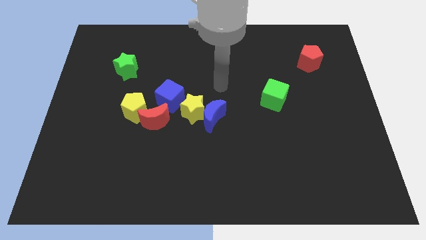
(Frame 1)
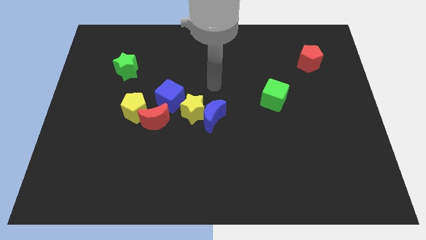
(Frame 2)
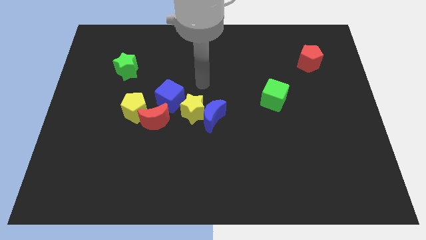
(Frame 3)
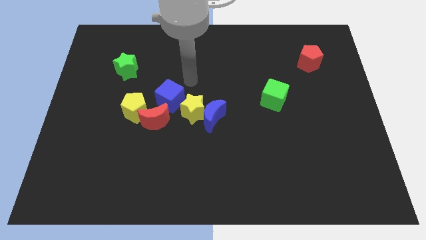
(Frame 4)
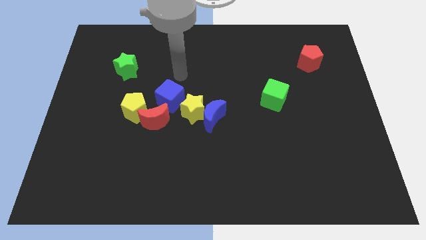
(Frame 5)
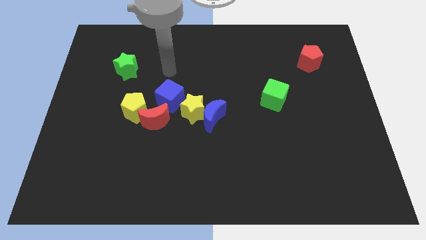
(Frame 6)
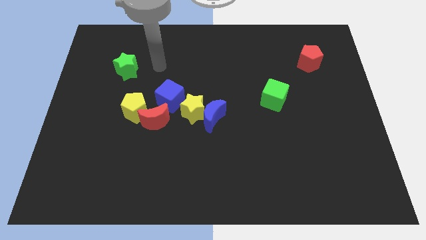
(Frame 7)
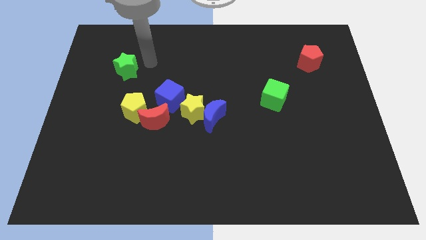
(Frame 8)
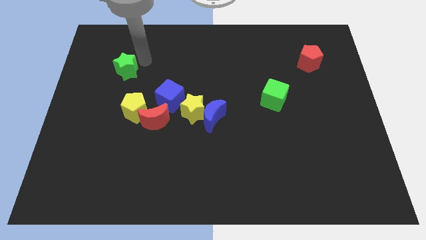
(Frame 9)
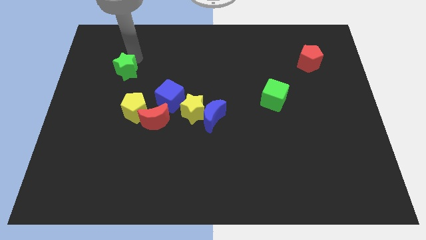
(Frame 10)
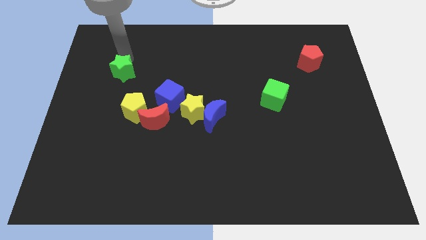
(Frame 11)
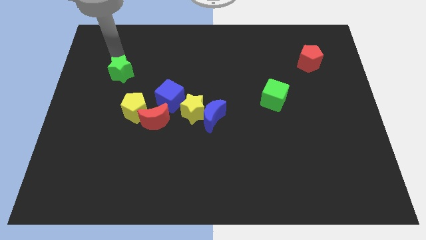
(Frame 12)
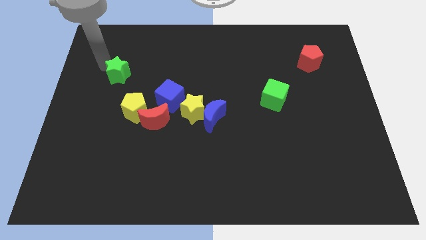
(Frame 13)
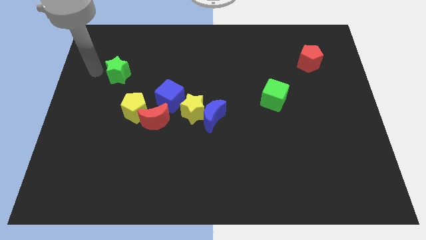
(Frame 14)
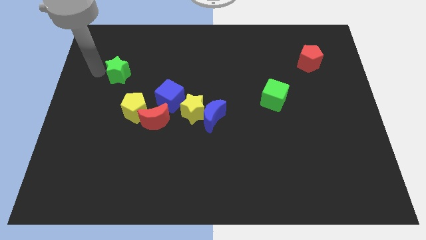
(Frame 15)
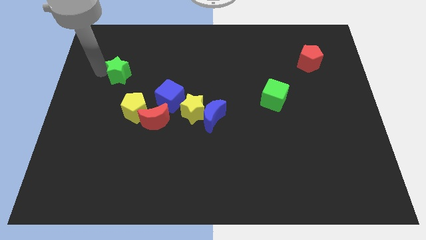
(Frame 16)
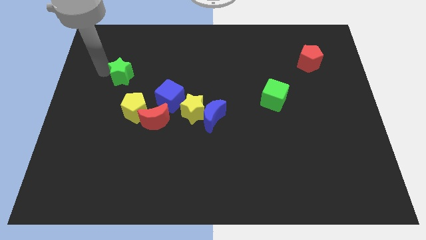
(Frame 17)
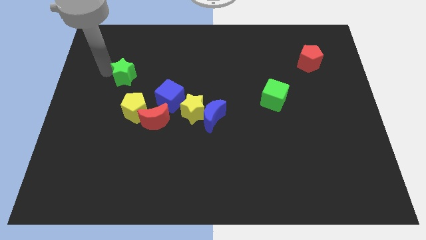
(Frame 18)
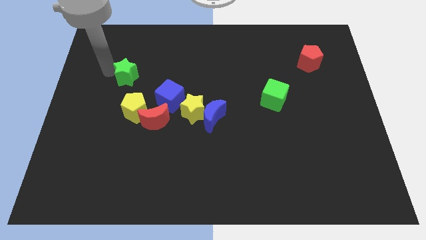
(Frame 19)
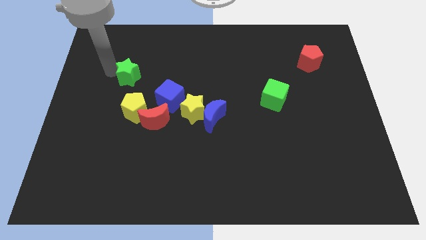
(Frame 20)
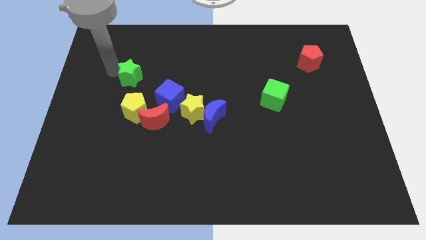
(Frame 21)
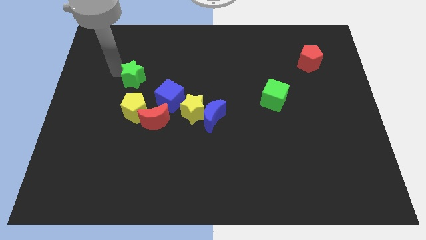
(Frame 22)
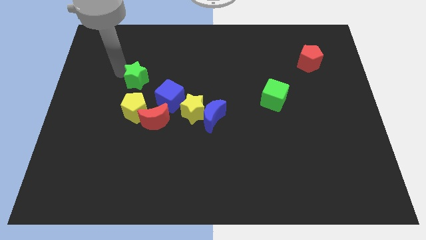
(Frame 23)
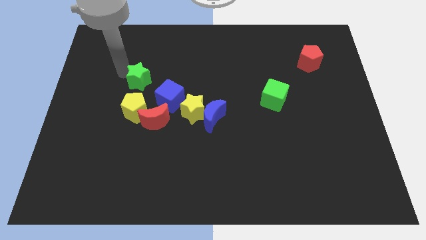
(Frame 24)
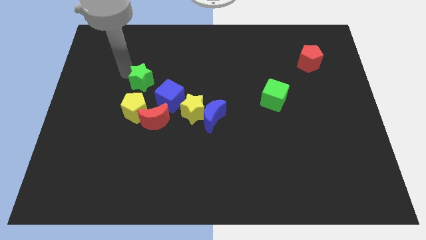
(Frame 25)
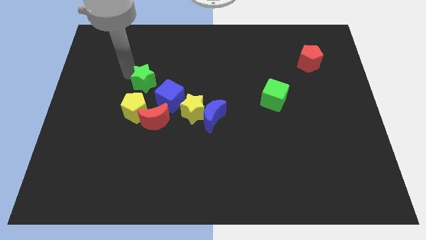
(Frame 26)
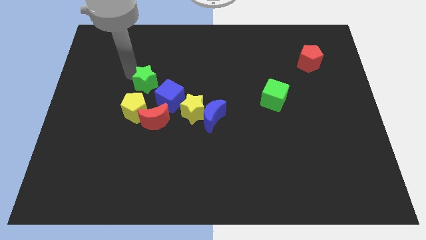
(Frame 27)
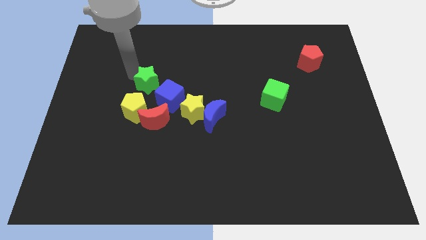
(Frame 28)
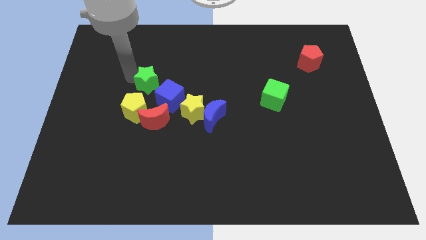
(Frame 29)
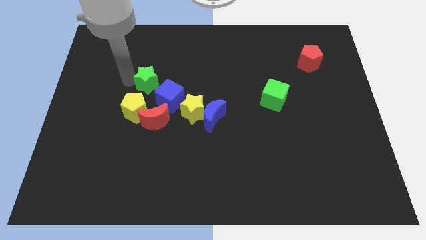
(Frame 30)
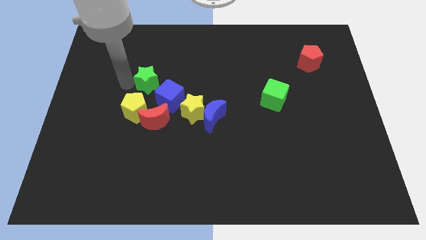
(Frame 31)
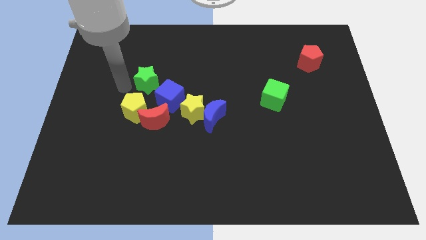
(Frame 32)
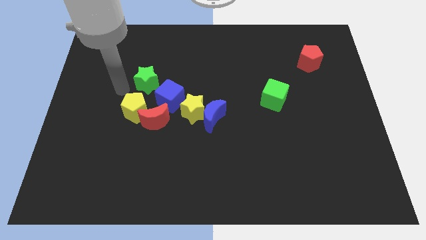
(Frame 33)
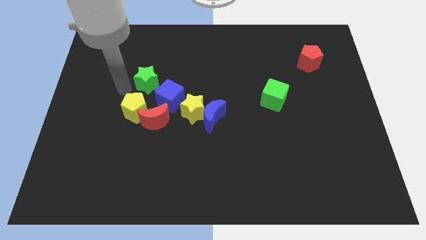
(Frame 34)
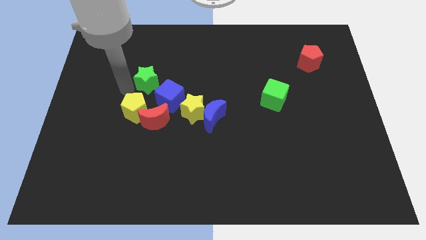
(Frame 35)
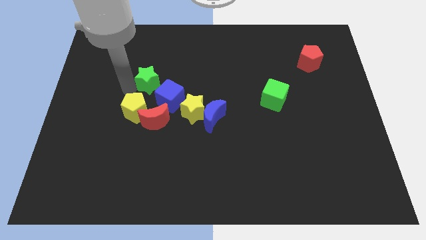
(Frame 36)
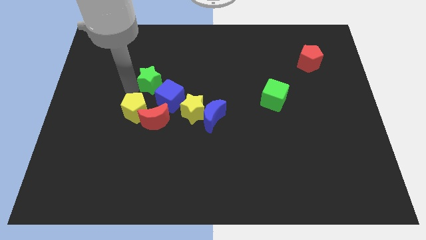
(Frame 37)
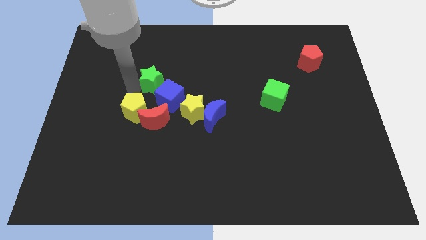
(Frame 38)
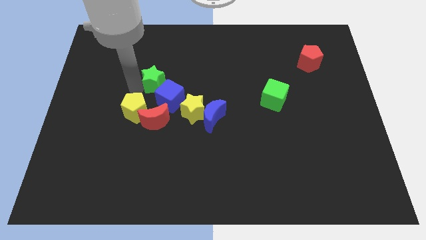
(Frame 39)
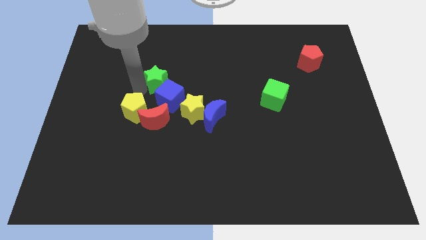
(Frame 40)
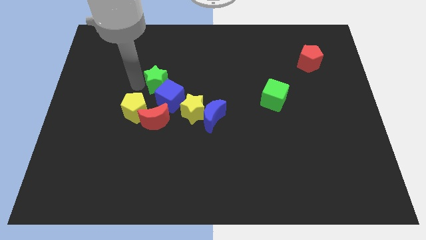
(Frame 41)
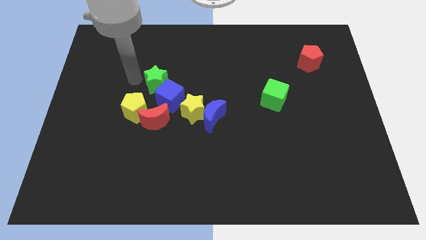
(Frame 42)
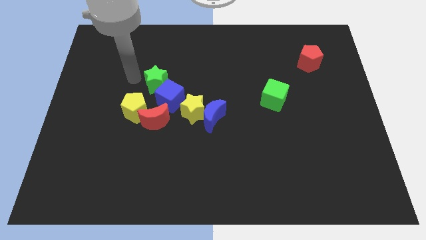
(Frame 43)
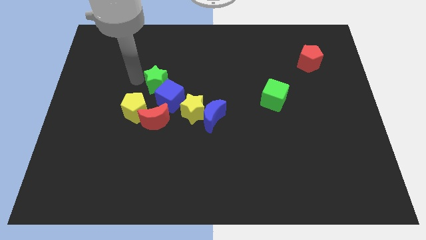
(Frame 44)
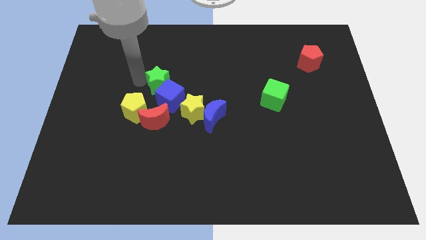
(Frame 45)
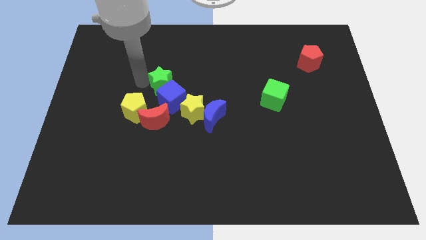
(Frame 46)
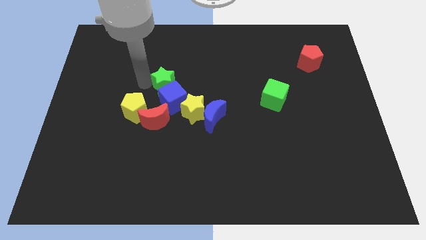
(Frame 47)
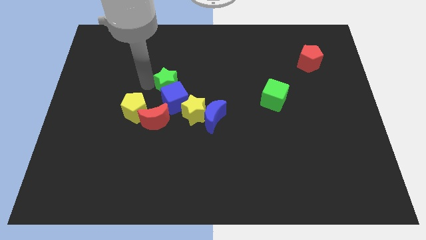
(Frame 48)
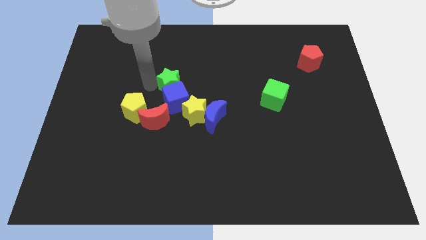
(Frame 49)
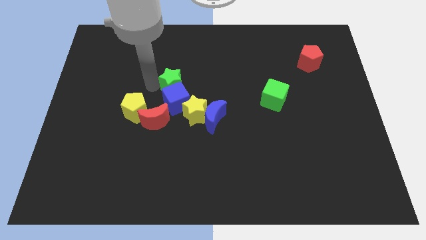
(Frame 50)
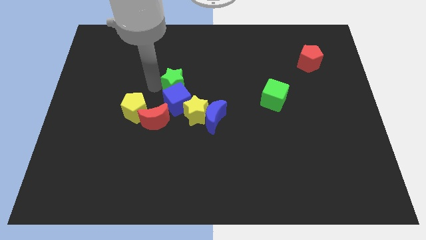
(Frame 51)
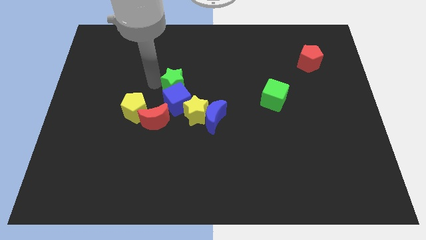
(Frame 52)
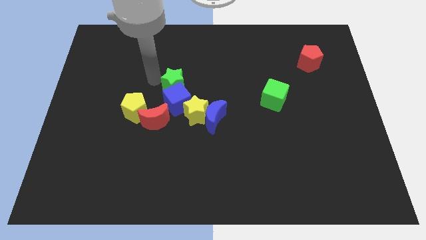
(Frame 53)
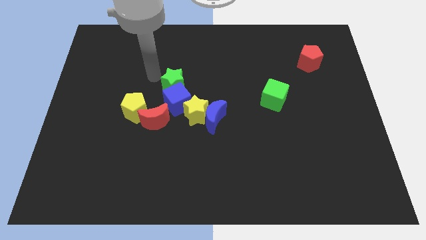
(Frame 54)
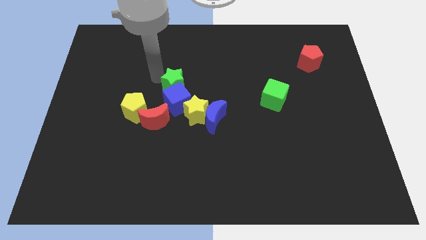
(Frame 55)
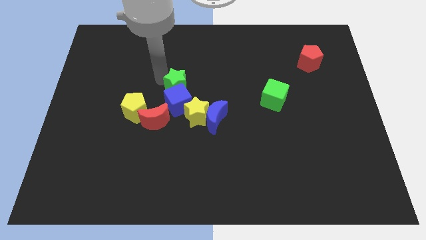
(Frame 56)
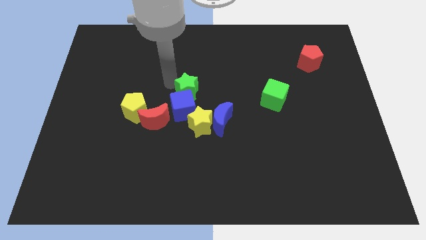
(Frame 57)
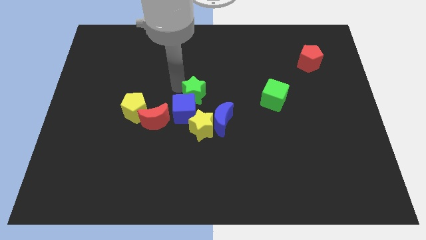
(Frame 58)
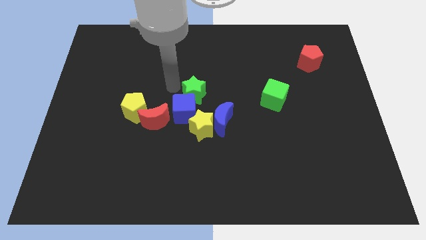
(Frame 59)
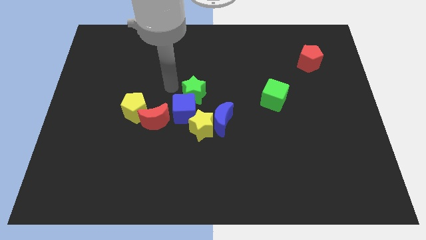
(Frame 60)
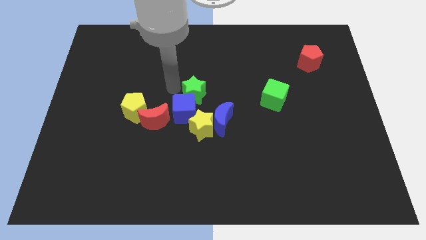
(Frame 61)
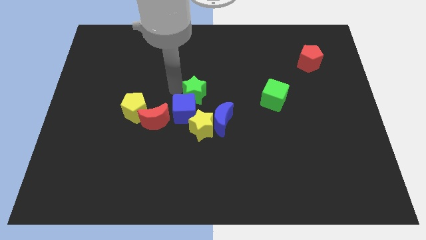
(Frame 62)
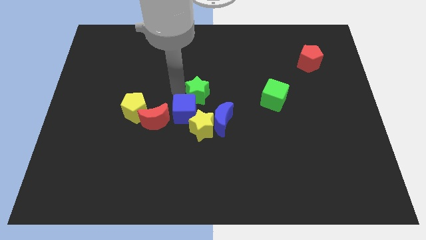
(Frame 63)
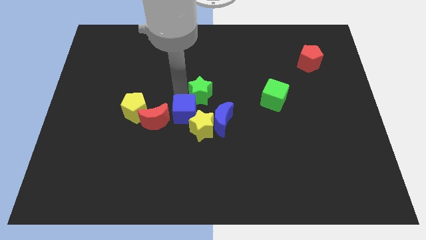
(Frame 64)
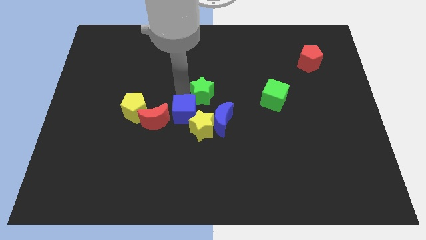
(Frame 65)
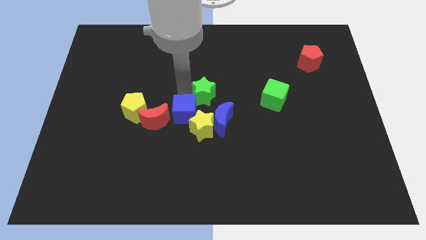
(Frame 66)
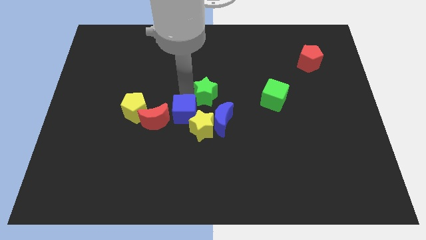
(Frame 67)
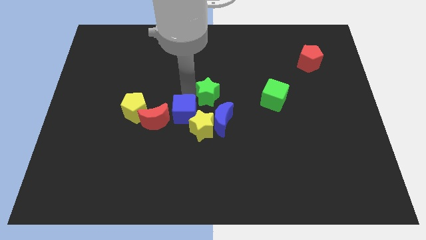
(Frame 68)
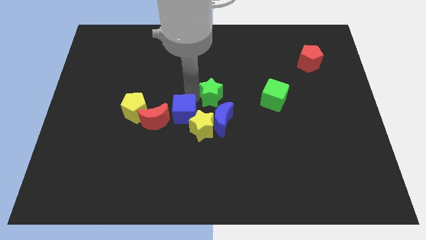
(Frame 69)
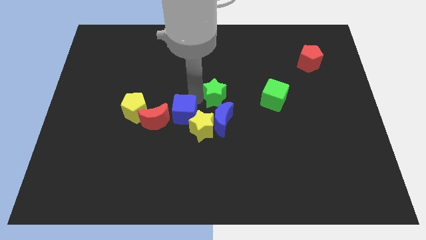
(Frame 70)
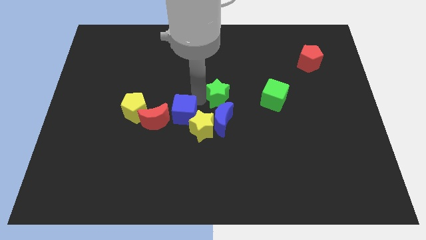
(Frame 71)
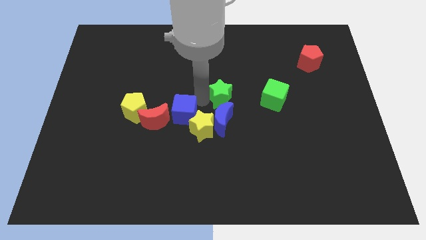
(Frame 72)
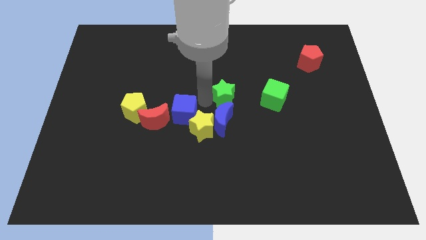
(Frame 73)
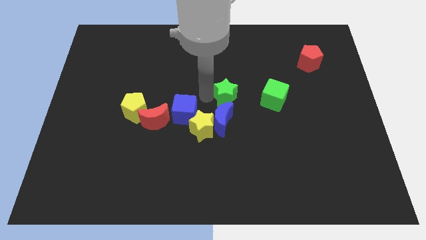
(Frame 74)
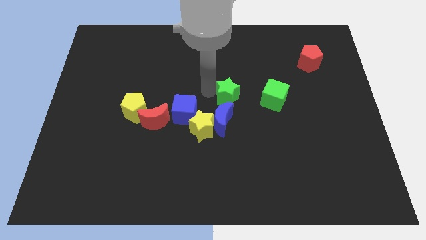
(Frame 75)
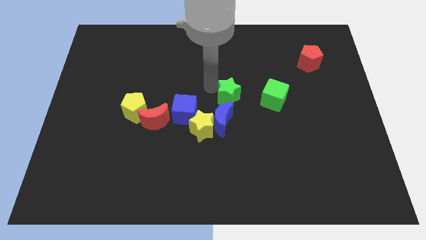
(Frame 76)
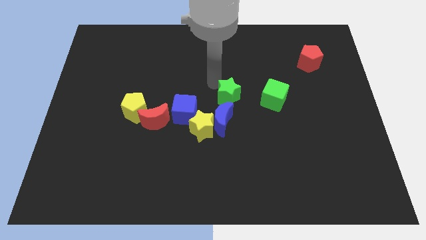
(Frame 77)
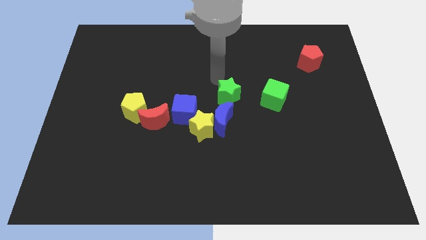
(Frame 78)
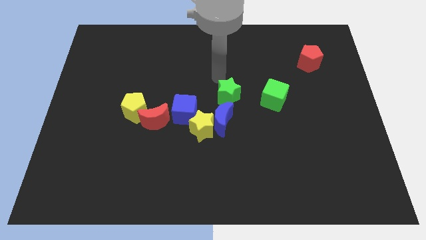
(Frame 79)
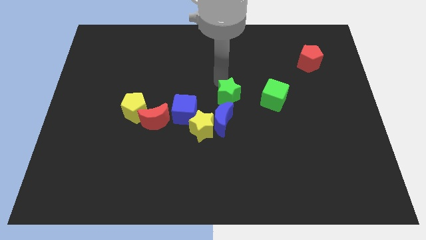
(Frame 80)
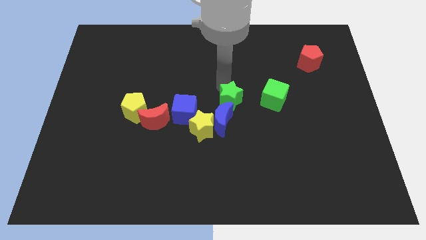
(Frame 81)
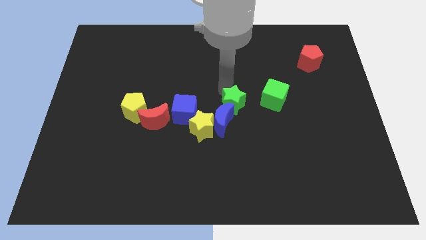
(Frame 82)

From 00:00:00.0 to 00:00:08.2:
push the green star downwards and then to the right
